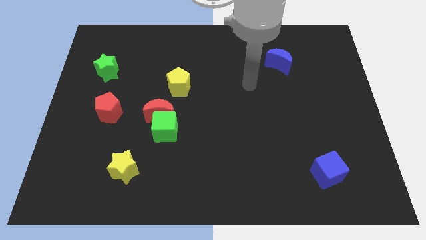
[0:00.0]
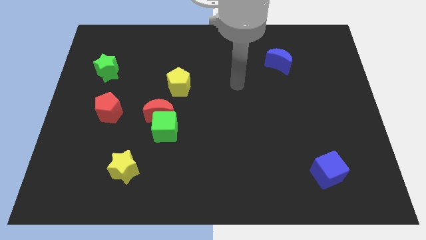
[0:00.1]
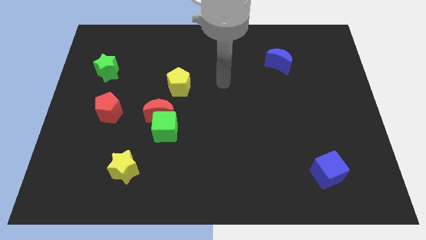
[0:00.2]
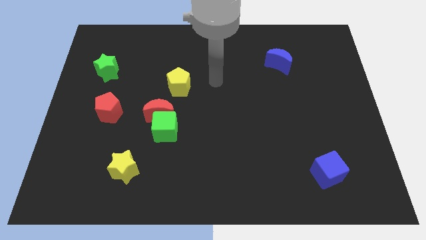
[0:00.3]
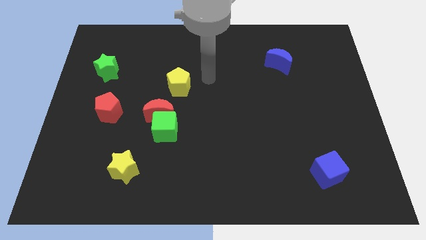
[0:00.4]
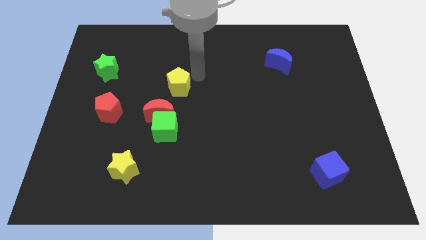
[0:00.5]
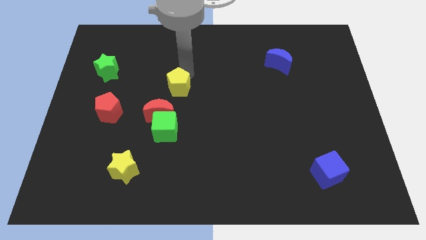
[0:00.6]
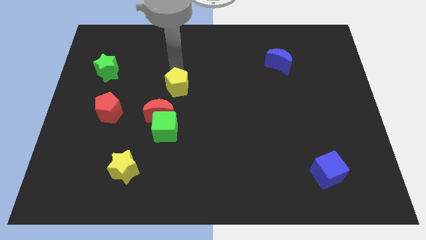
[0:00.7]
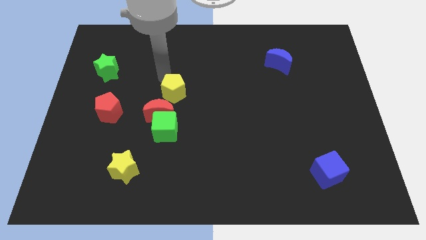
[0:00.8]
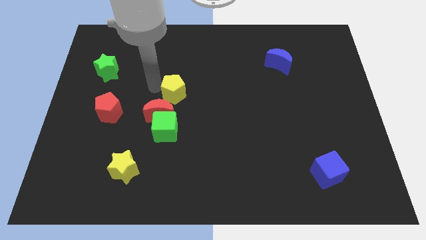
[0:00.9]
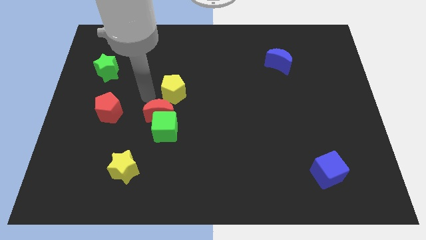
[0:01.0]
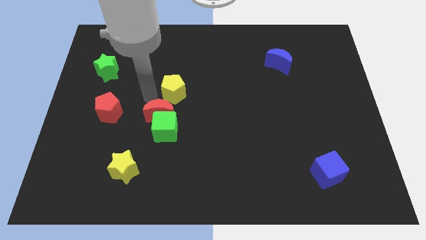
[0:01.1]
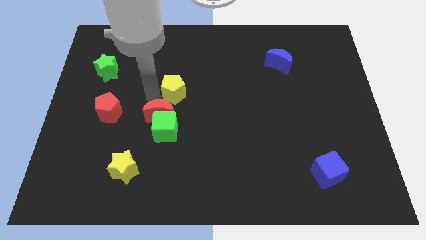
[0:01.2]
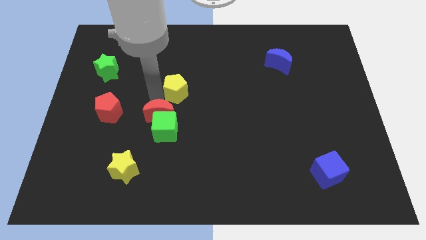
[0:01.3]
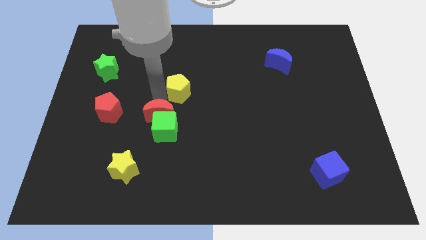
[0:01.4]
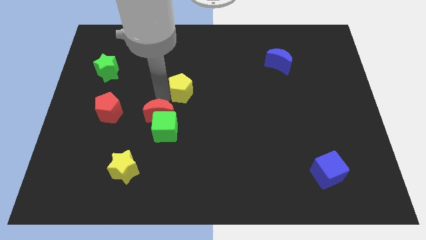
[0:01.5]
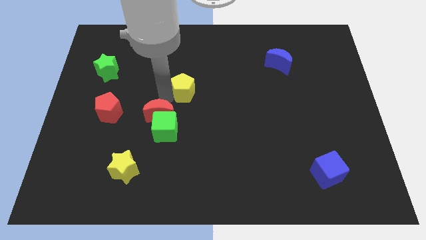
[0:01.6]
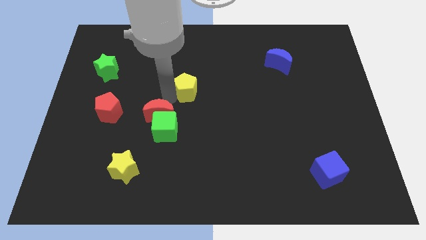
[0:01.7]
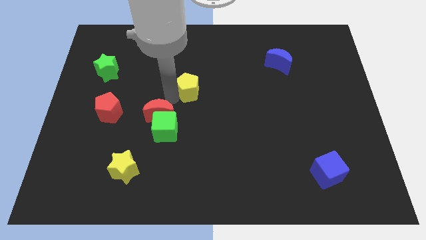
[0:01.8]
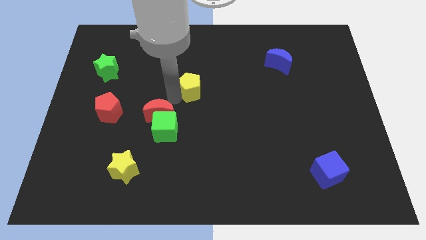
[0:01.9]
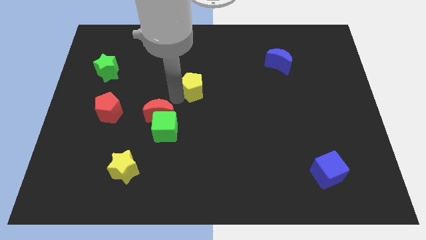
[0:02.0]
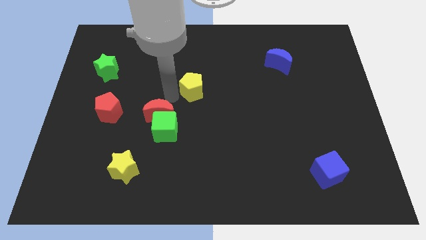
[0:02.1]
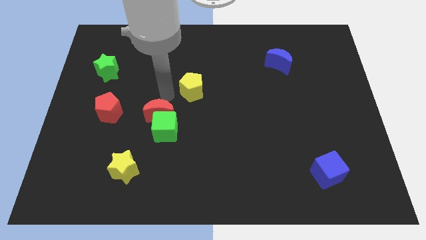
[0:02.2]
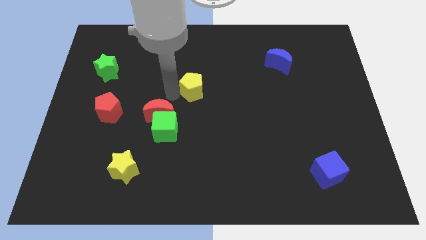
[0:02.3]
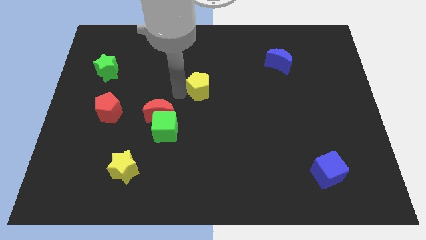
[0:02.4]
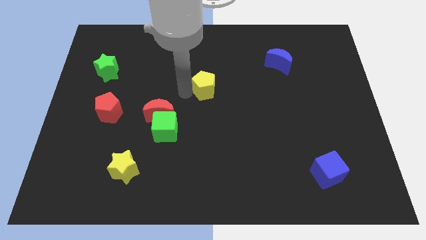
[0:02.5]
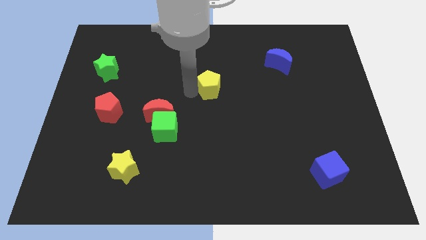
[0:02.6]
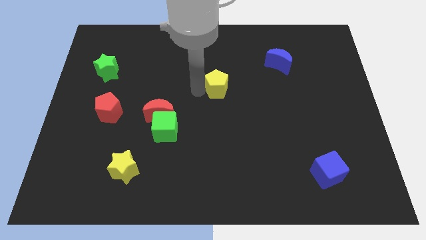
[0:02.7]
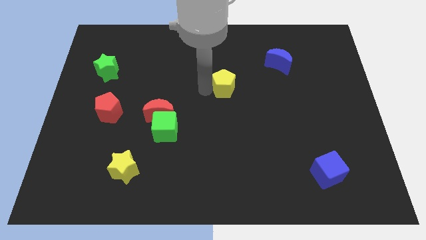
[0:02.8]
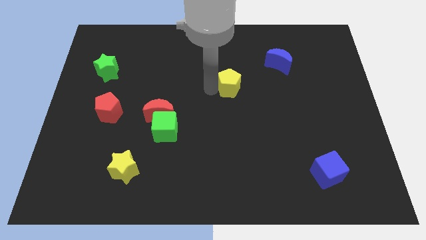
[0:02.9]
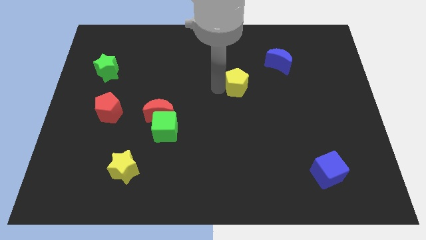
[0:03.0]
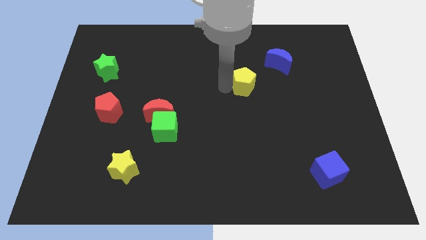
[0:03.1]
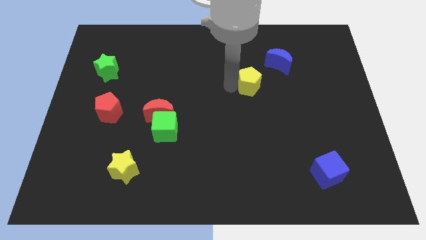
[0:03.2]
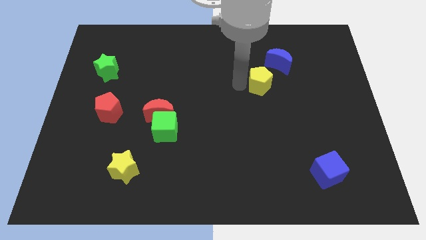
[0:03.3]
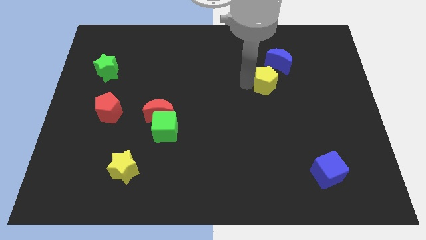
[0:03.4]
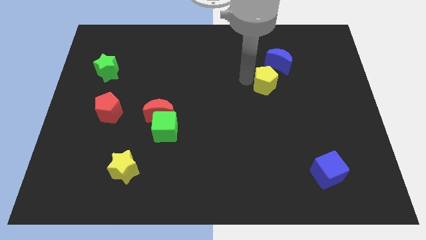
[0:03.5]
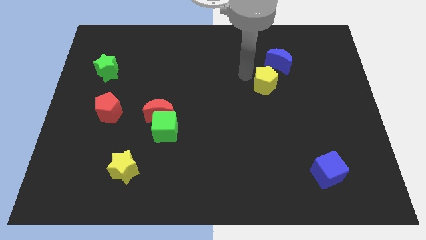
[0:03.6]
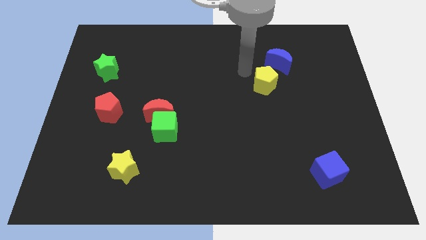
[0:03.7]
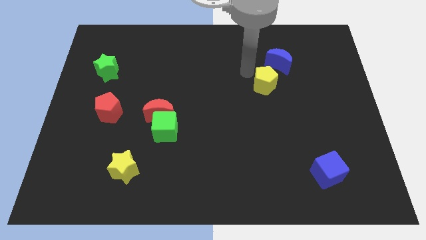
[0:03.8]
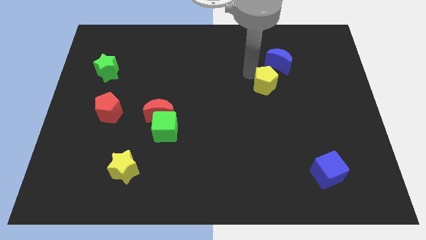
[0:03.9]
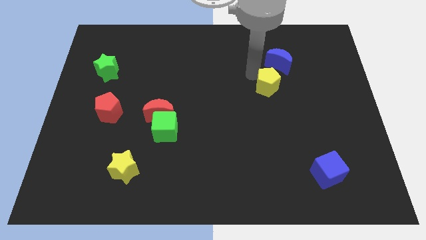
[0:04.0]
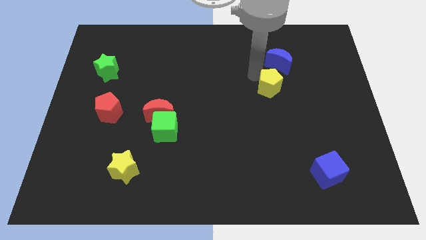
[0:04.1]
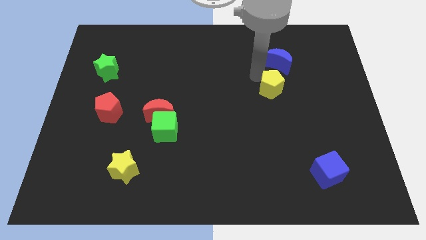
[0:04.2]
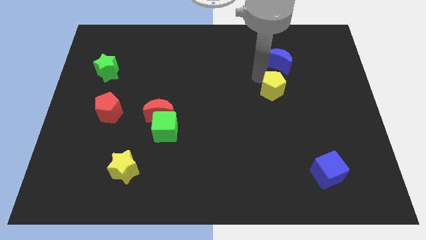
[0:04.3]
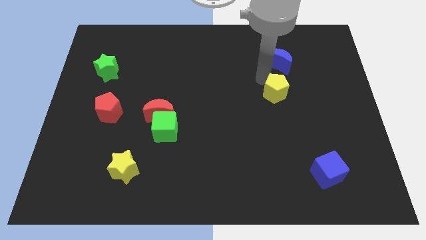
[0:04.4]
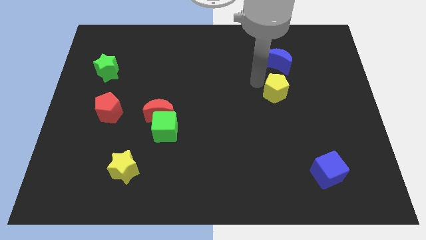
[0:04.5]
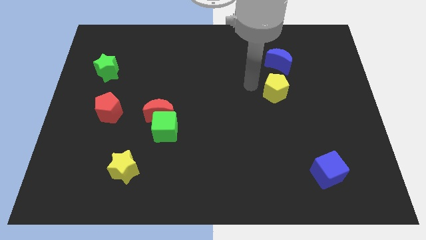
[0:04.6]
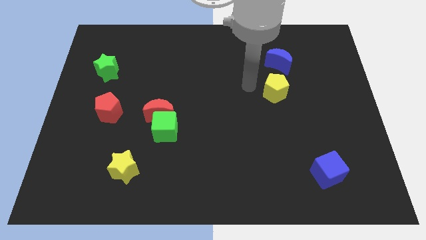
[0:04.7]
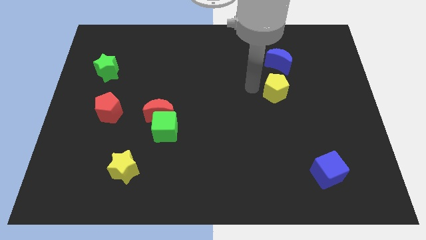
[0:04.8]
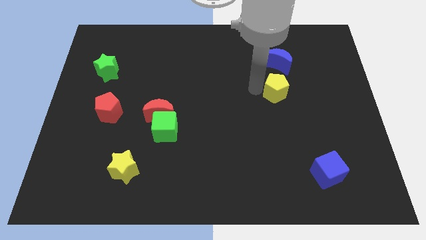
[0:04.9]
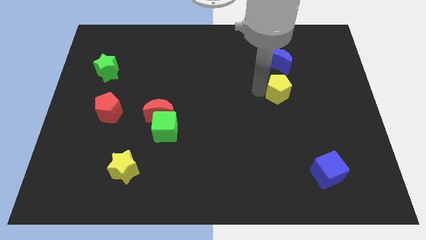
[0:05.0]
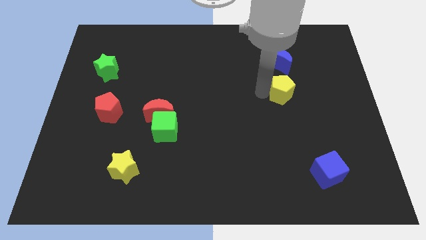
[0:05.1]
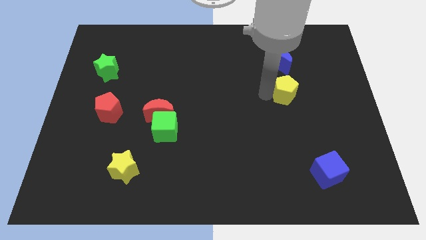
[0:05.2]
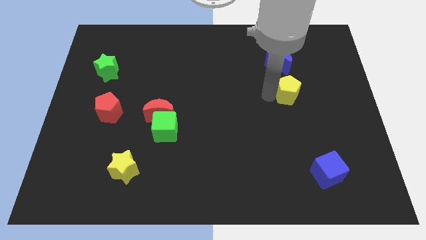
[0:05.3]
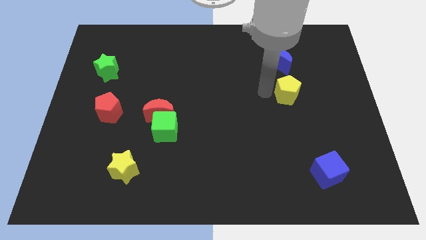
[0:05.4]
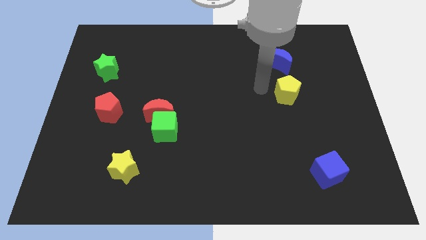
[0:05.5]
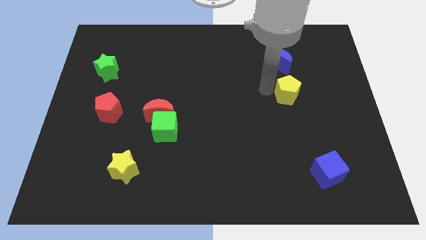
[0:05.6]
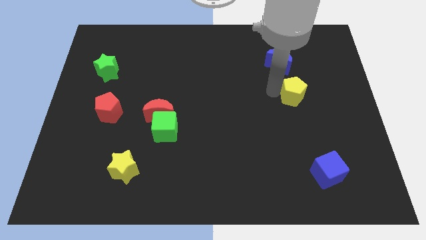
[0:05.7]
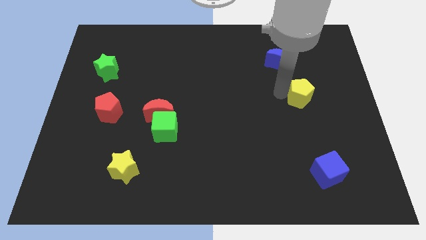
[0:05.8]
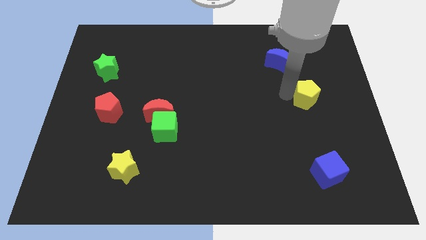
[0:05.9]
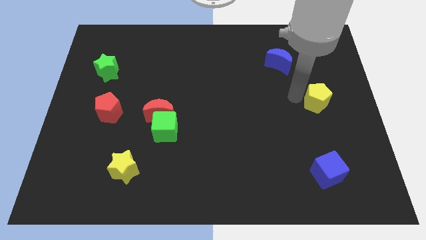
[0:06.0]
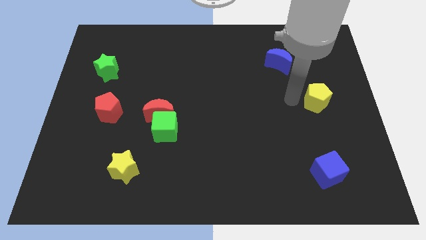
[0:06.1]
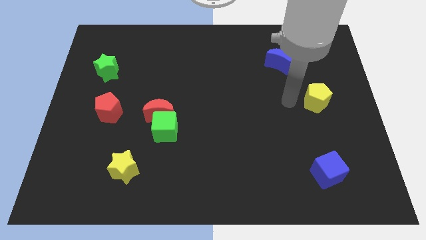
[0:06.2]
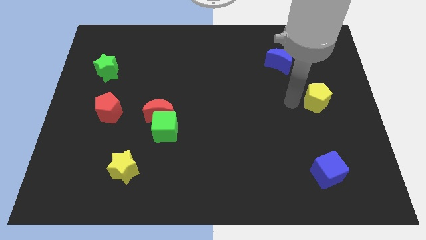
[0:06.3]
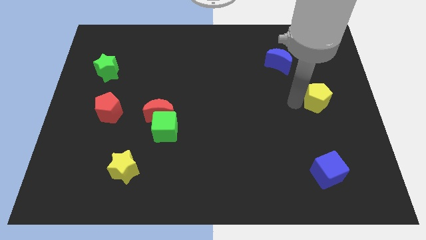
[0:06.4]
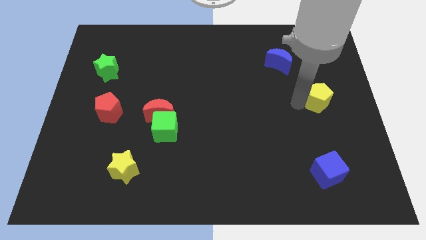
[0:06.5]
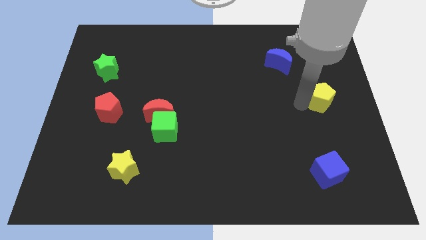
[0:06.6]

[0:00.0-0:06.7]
move the yellow pentagon to the right side
